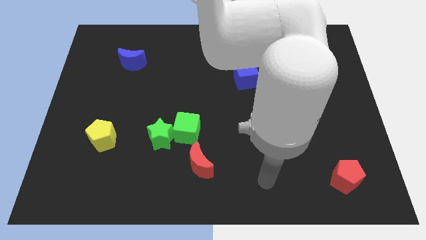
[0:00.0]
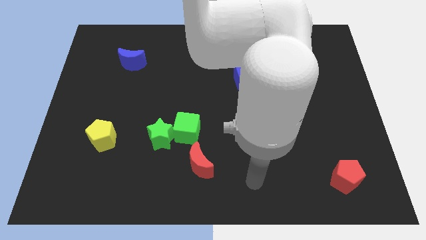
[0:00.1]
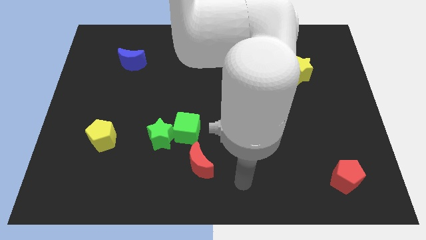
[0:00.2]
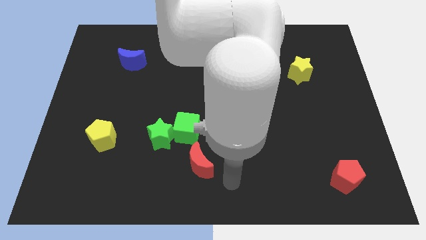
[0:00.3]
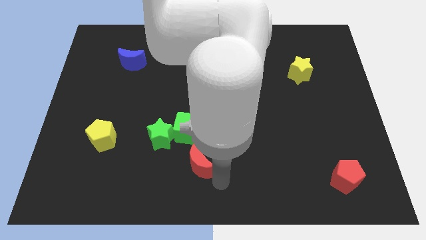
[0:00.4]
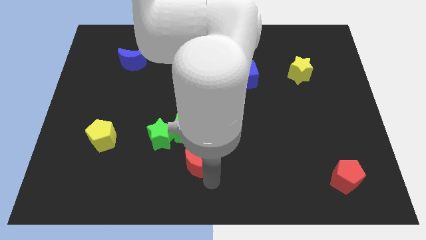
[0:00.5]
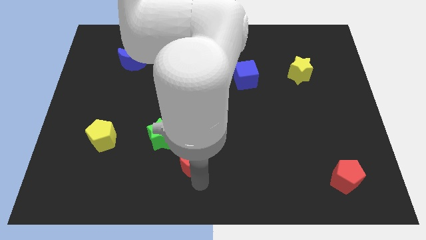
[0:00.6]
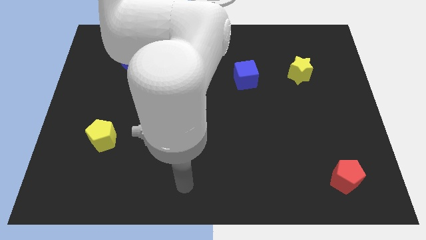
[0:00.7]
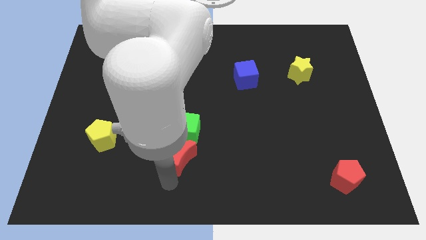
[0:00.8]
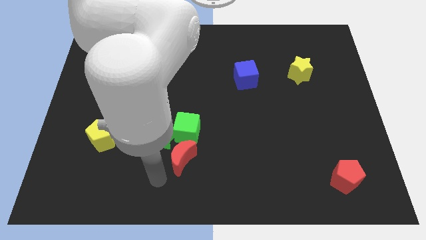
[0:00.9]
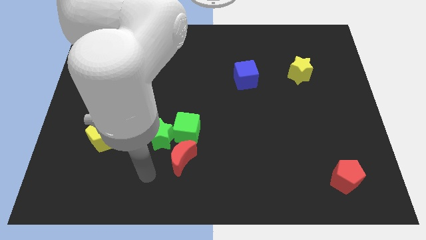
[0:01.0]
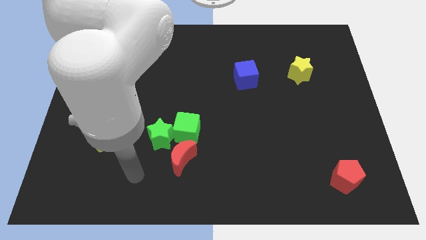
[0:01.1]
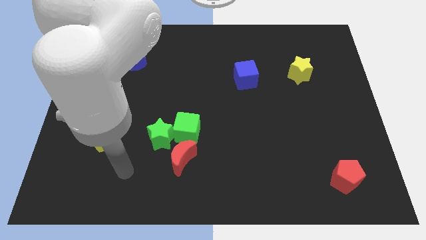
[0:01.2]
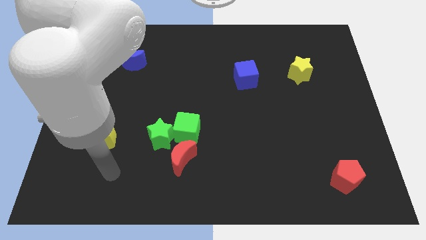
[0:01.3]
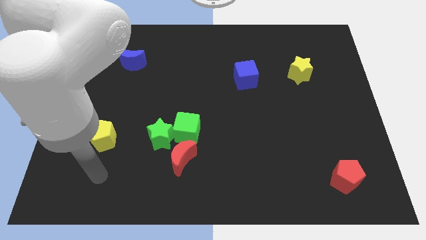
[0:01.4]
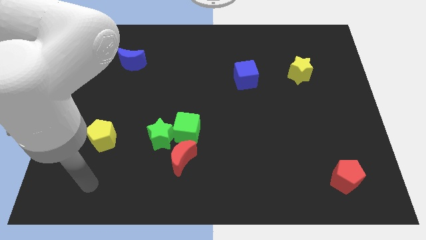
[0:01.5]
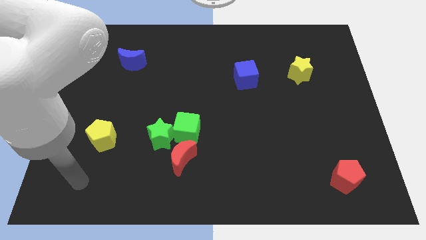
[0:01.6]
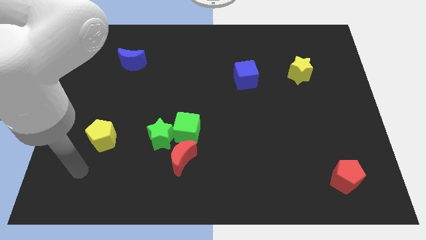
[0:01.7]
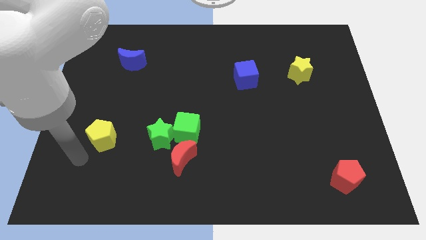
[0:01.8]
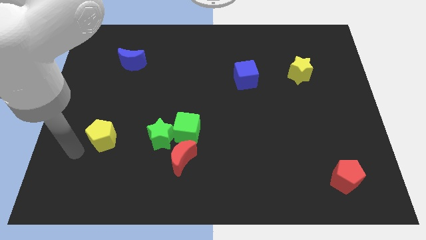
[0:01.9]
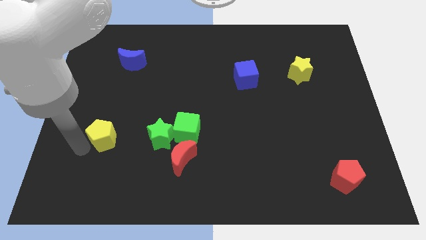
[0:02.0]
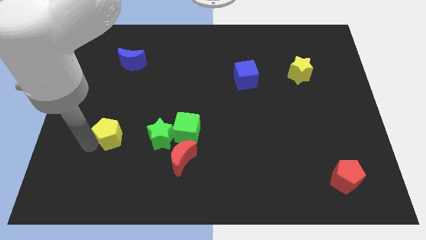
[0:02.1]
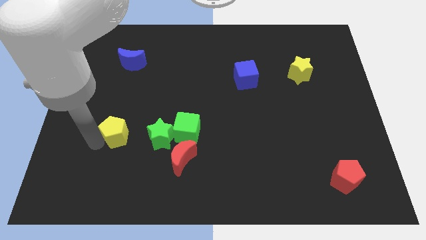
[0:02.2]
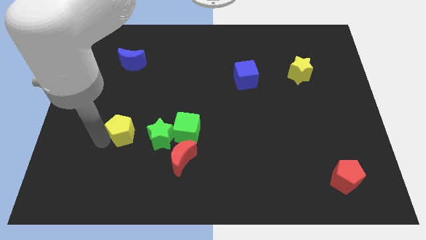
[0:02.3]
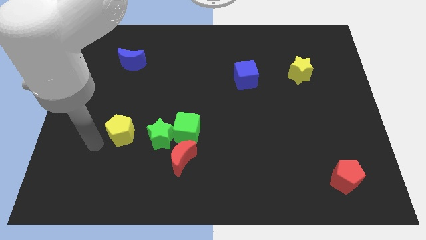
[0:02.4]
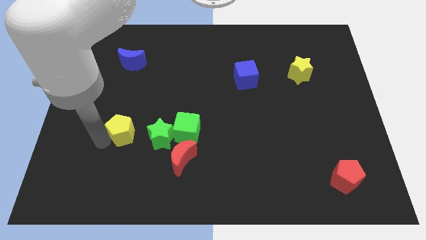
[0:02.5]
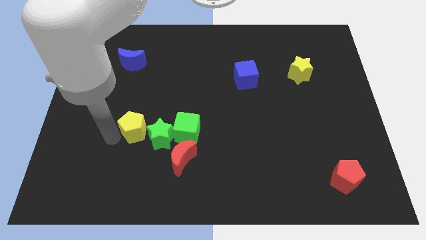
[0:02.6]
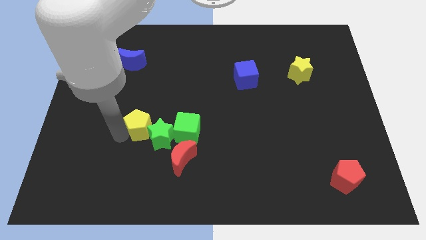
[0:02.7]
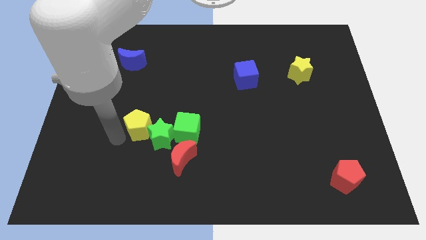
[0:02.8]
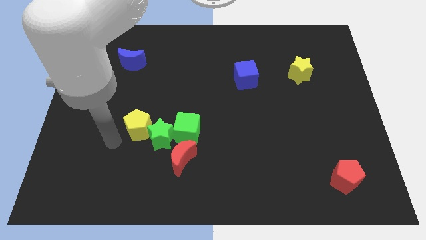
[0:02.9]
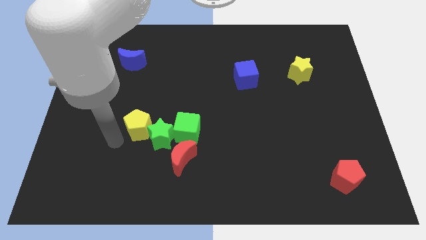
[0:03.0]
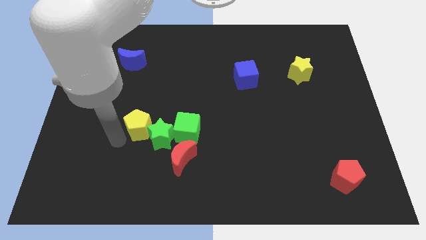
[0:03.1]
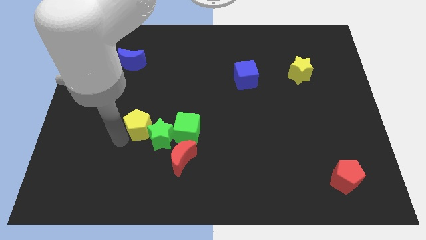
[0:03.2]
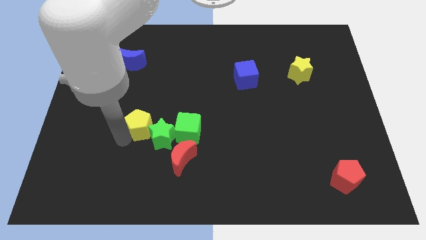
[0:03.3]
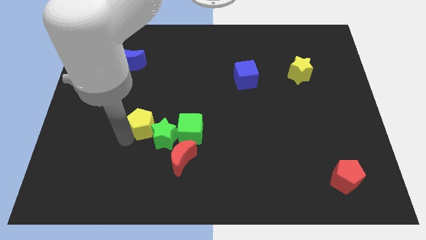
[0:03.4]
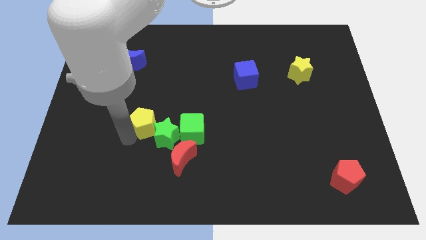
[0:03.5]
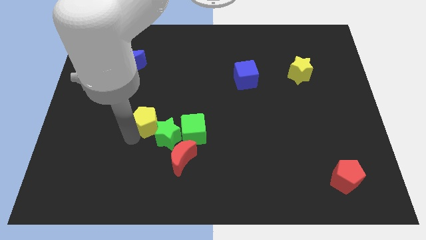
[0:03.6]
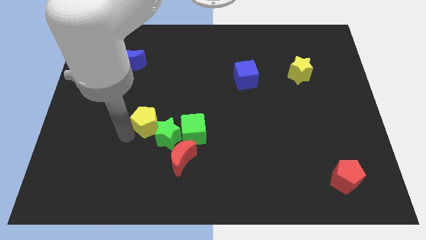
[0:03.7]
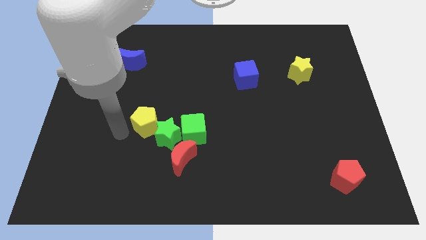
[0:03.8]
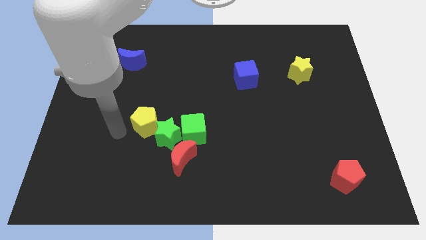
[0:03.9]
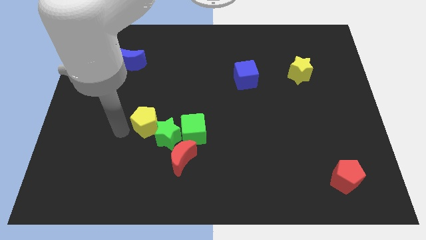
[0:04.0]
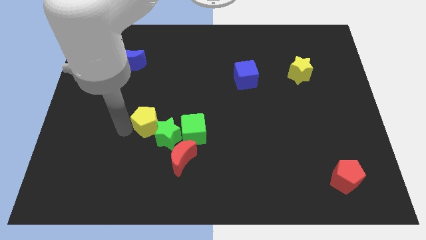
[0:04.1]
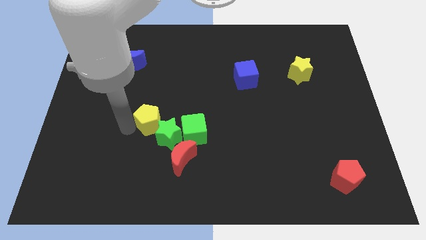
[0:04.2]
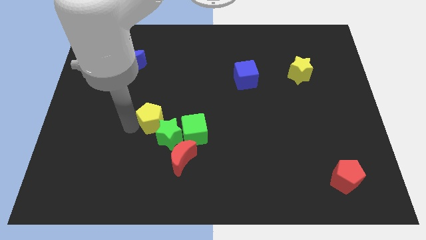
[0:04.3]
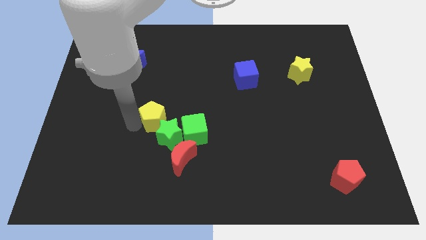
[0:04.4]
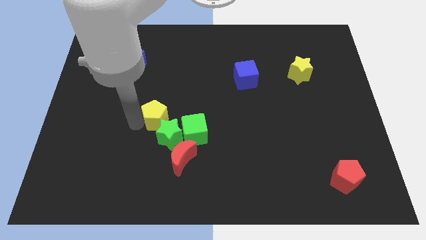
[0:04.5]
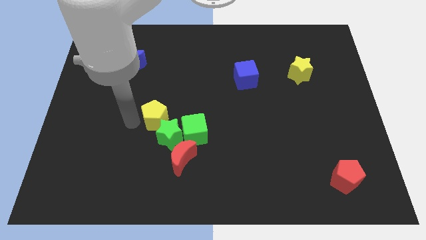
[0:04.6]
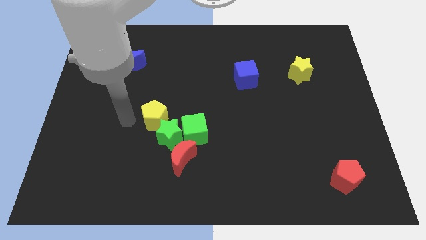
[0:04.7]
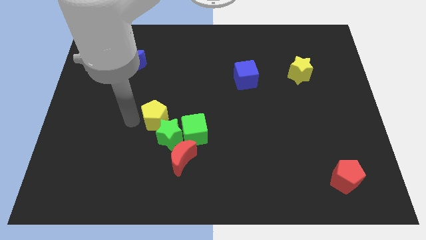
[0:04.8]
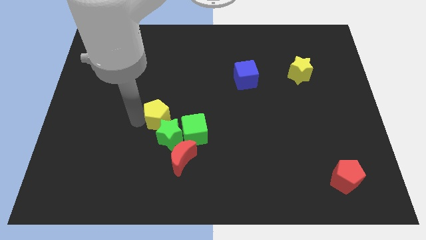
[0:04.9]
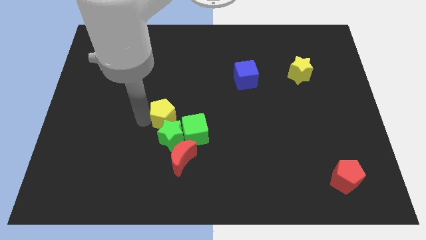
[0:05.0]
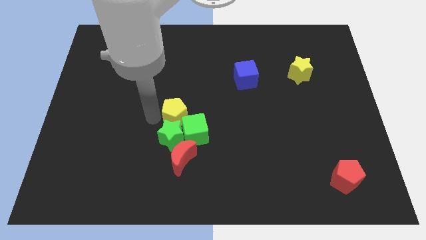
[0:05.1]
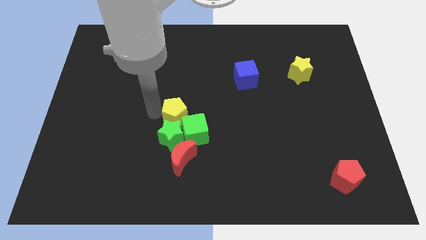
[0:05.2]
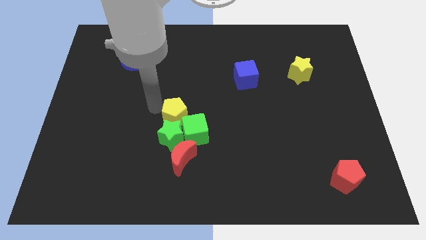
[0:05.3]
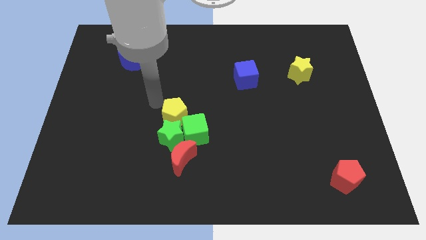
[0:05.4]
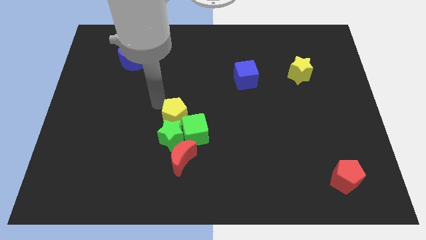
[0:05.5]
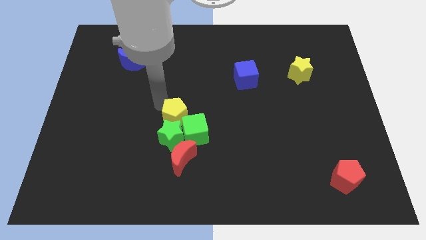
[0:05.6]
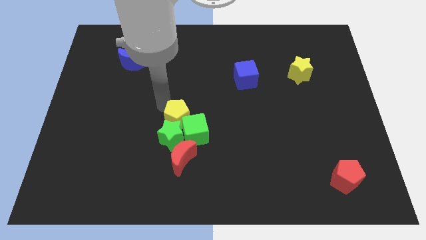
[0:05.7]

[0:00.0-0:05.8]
slide the yellow pentagon to the green cube

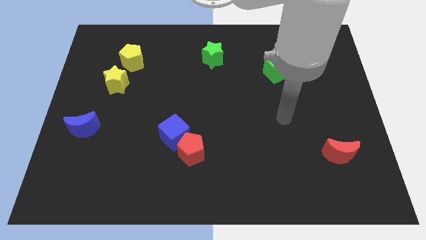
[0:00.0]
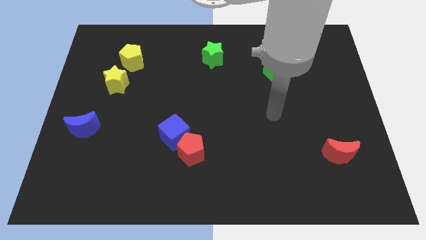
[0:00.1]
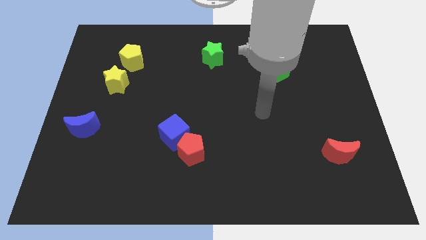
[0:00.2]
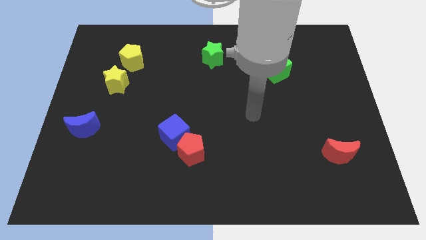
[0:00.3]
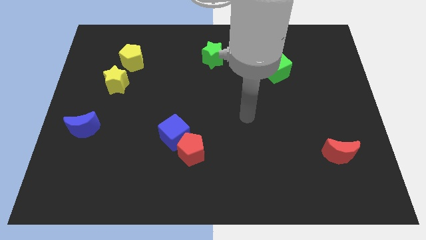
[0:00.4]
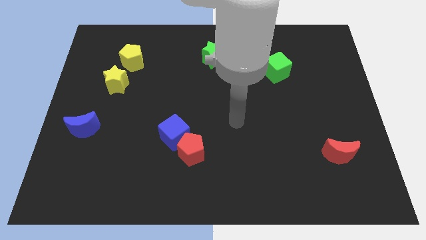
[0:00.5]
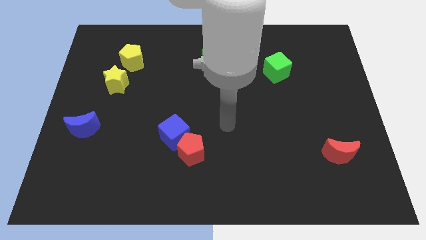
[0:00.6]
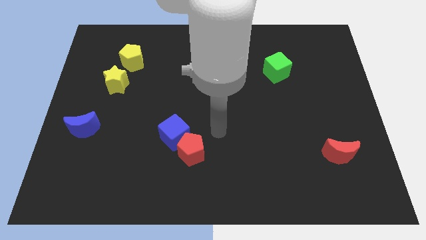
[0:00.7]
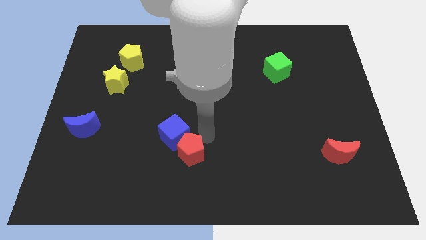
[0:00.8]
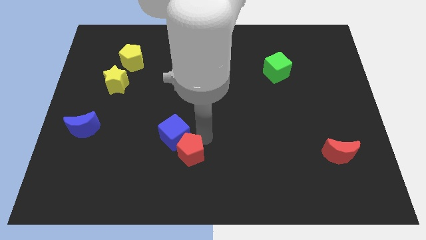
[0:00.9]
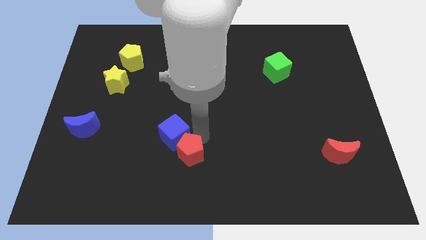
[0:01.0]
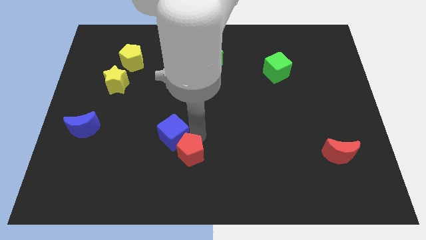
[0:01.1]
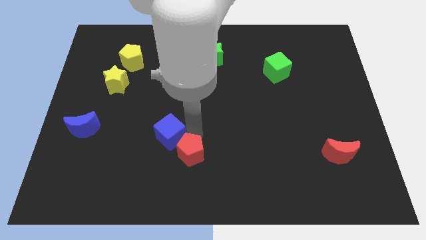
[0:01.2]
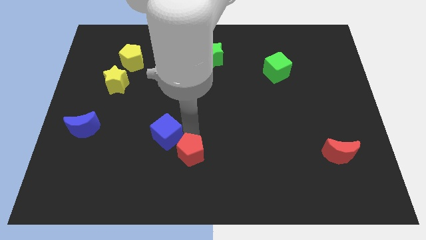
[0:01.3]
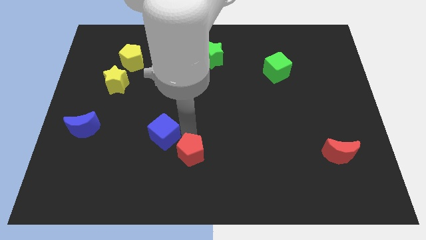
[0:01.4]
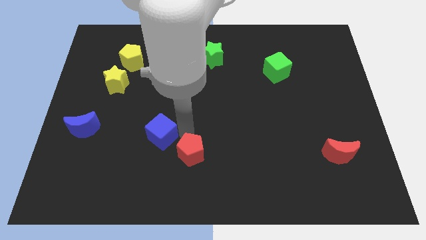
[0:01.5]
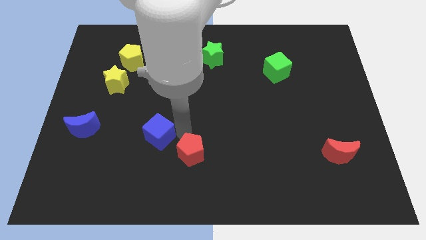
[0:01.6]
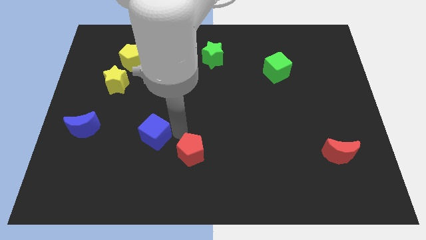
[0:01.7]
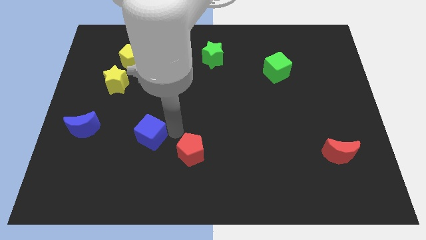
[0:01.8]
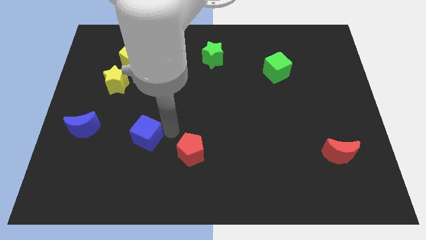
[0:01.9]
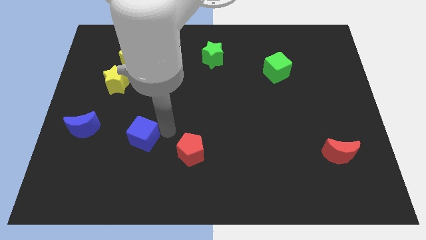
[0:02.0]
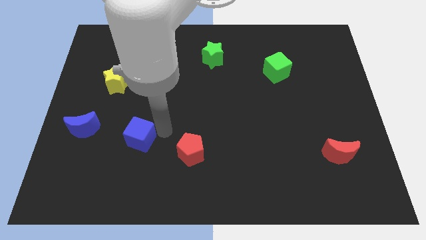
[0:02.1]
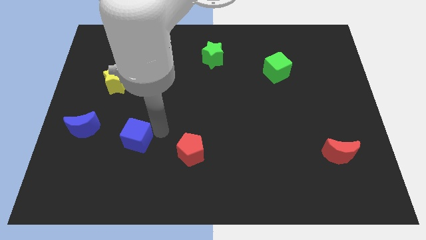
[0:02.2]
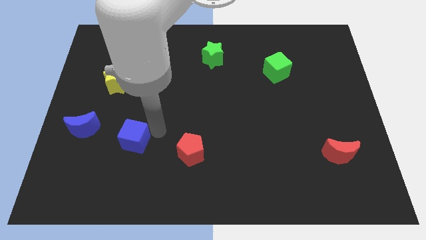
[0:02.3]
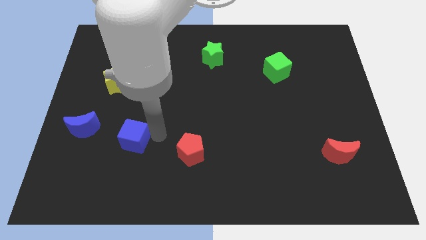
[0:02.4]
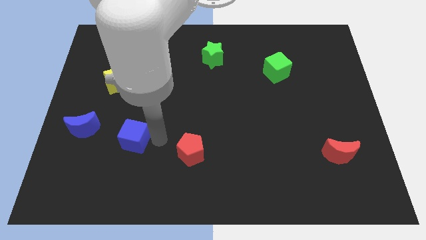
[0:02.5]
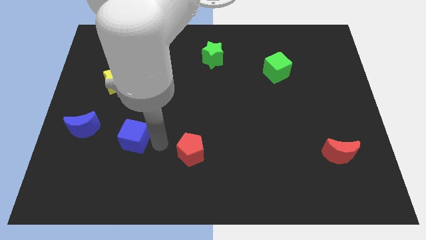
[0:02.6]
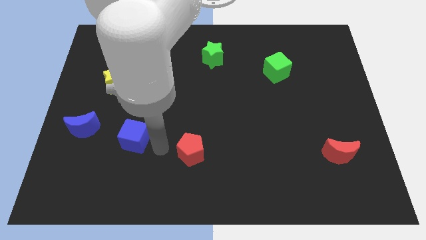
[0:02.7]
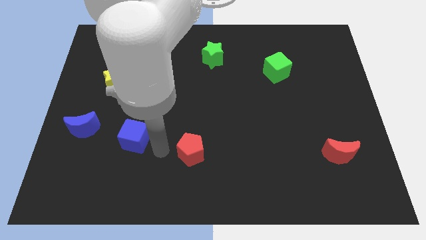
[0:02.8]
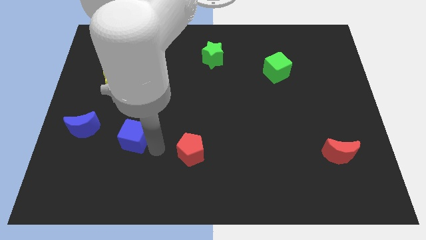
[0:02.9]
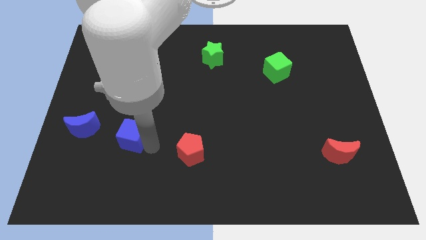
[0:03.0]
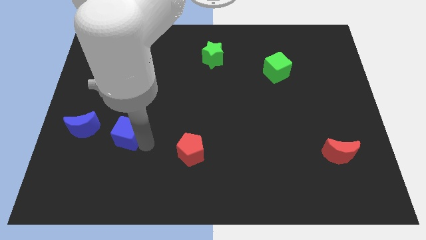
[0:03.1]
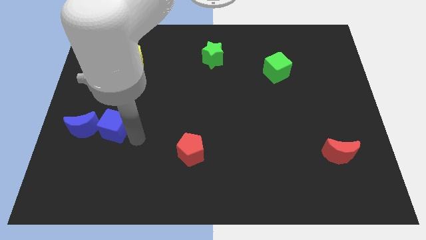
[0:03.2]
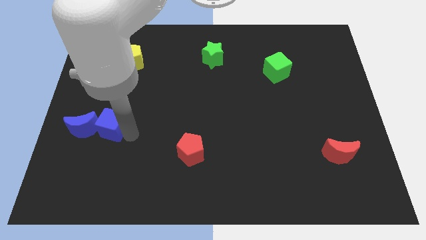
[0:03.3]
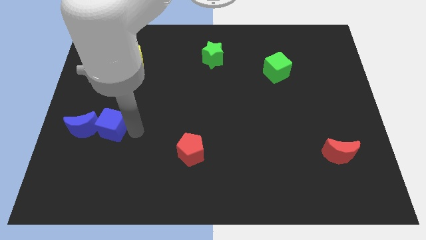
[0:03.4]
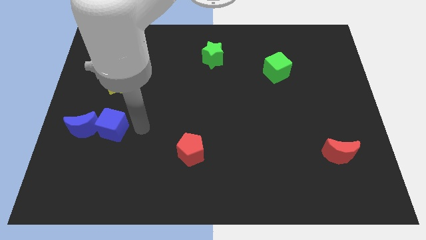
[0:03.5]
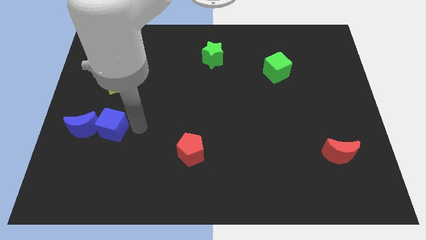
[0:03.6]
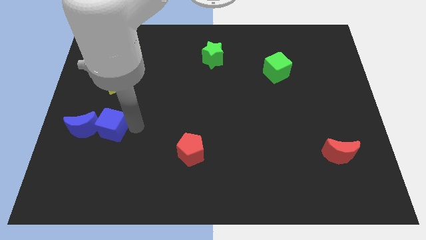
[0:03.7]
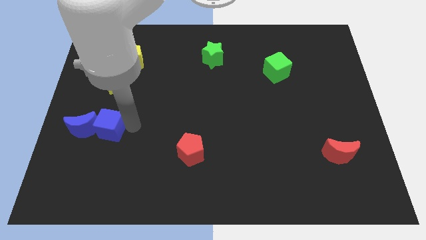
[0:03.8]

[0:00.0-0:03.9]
put the blue cube close to the blue moon
